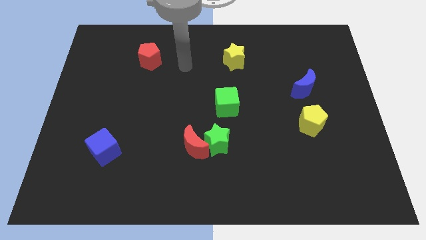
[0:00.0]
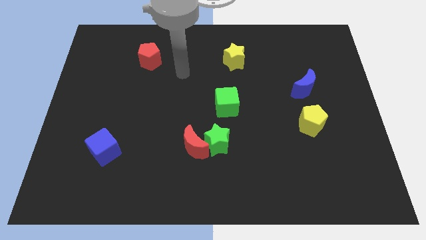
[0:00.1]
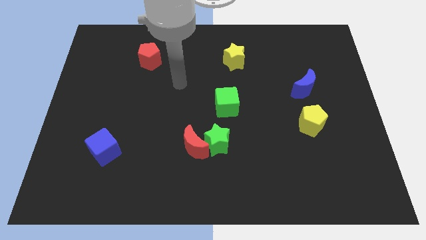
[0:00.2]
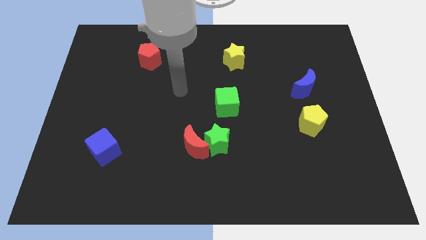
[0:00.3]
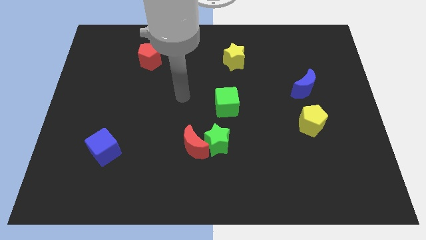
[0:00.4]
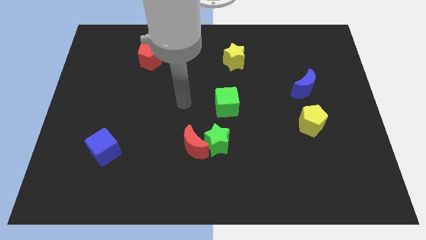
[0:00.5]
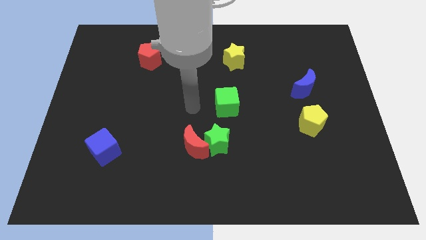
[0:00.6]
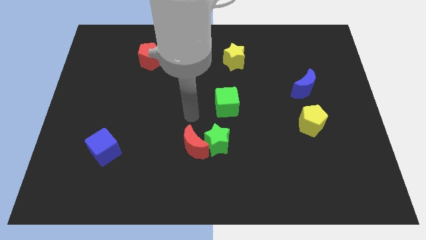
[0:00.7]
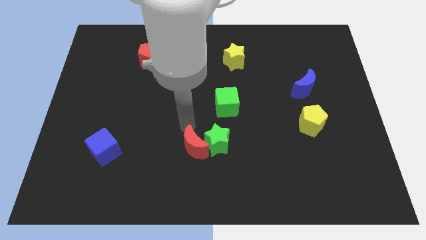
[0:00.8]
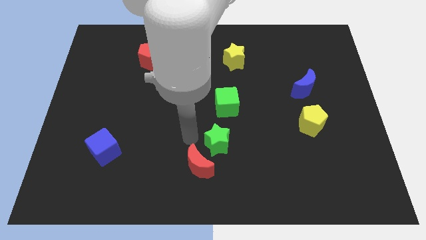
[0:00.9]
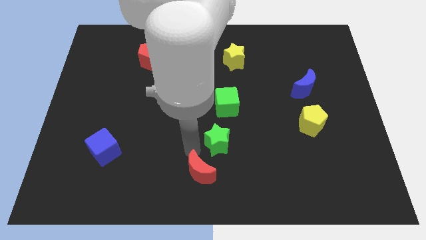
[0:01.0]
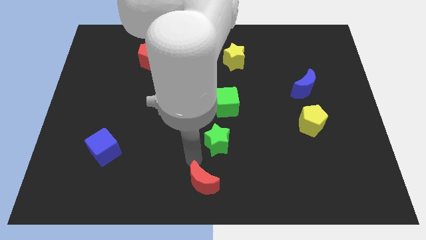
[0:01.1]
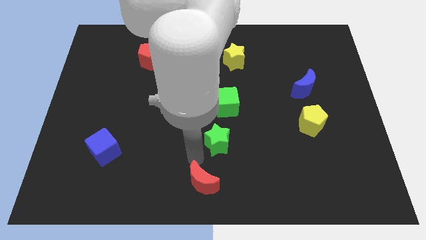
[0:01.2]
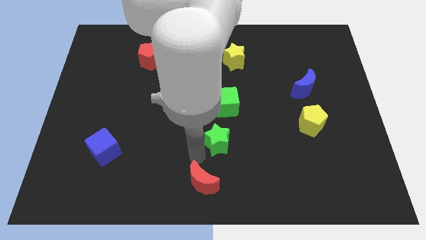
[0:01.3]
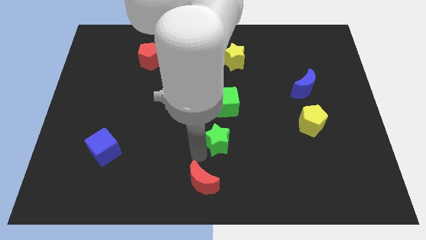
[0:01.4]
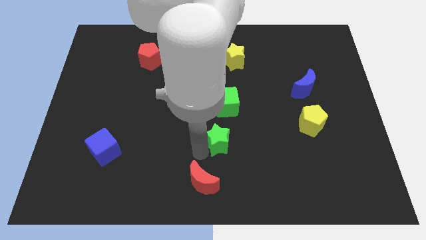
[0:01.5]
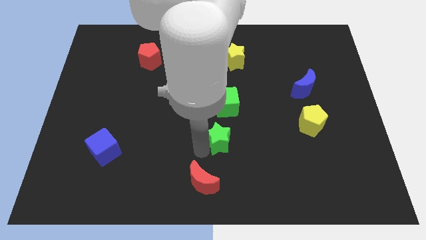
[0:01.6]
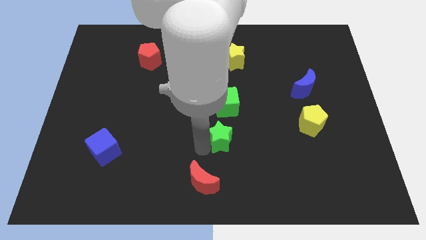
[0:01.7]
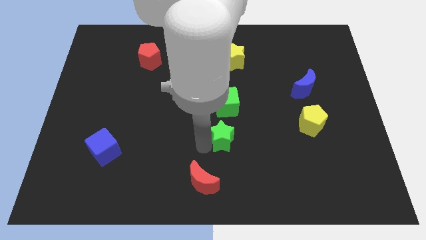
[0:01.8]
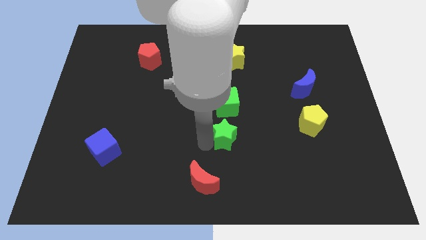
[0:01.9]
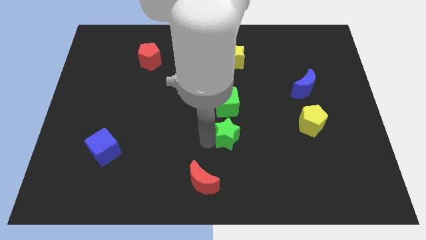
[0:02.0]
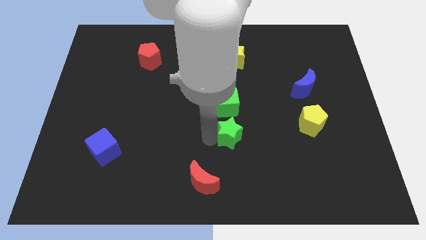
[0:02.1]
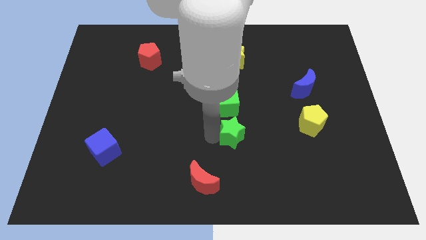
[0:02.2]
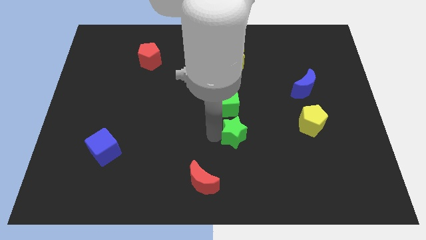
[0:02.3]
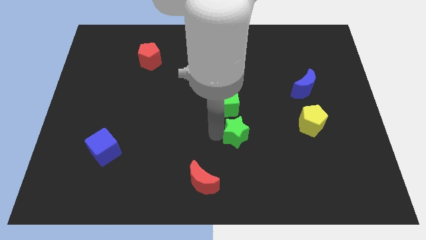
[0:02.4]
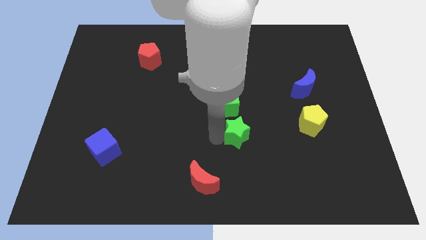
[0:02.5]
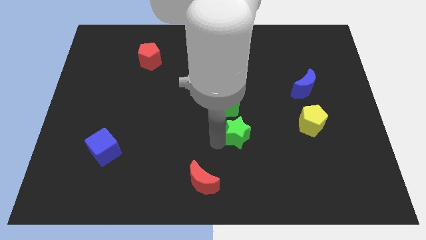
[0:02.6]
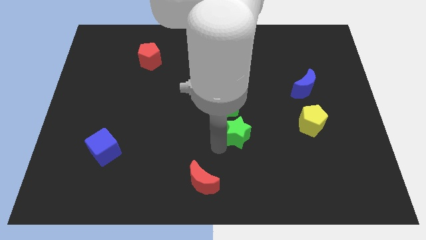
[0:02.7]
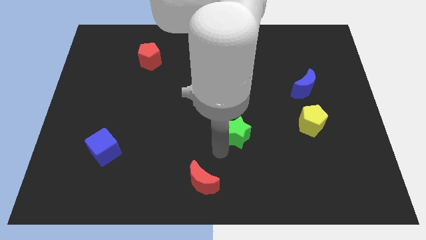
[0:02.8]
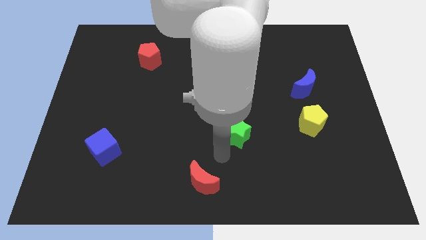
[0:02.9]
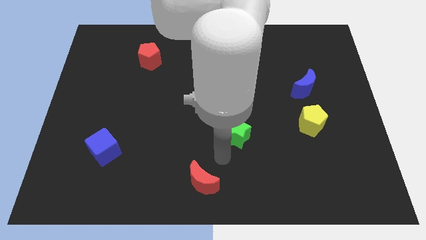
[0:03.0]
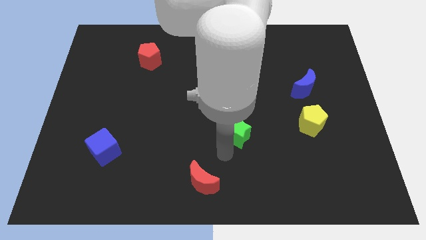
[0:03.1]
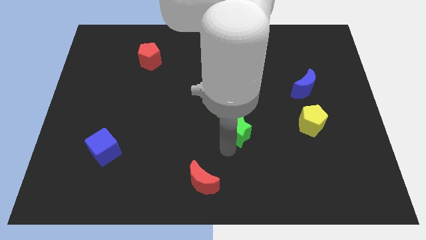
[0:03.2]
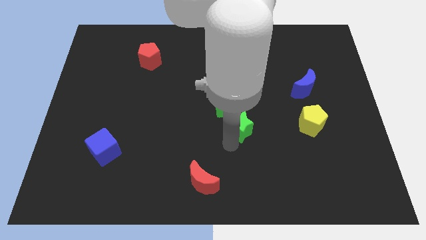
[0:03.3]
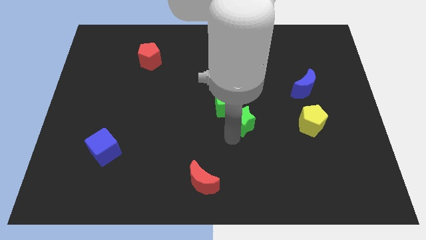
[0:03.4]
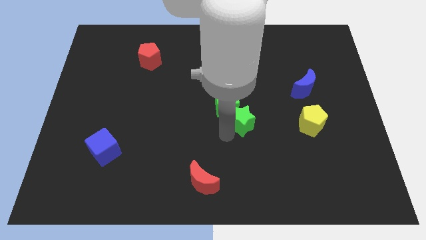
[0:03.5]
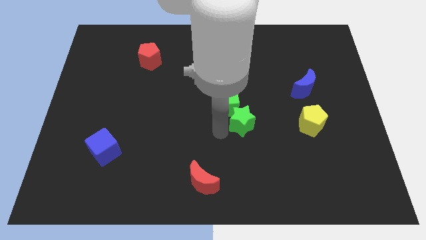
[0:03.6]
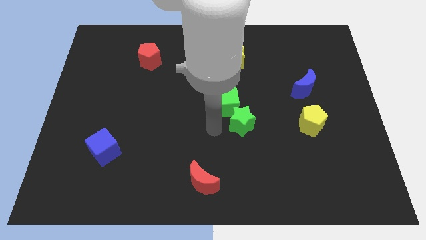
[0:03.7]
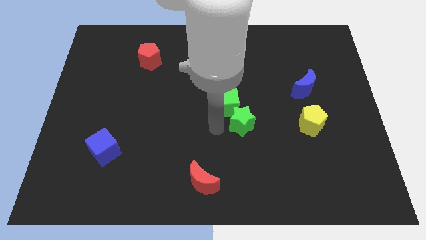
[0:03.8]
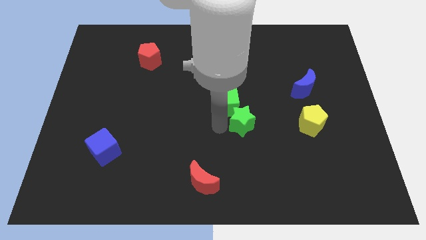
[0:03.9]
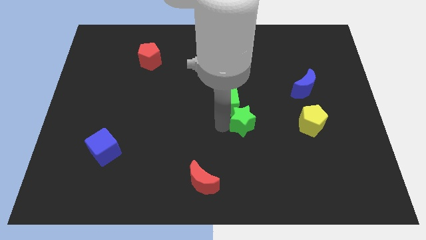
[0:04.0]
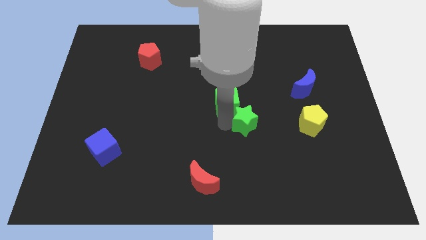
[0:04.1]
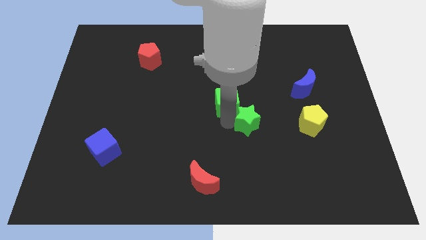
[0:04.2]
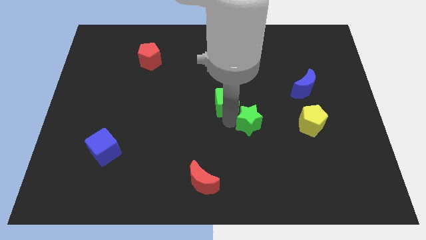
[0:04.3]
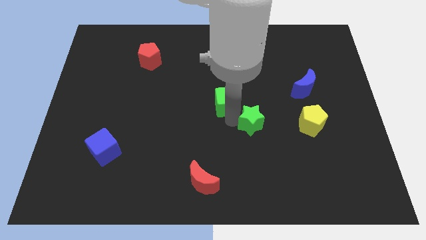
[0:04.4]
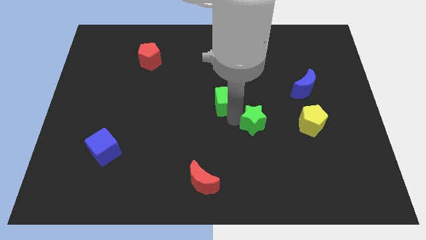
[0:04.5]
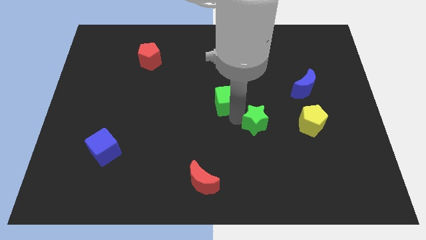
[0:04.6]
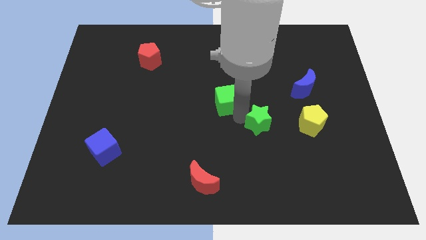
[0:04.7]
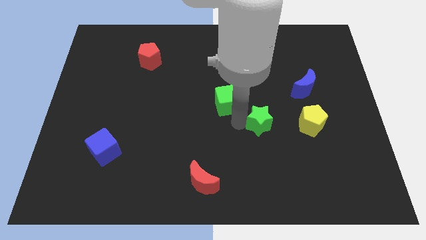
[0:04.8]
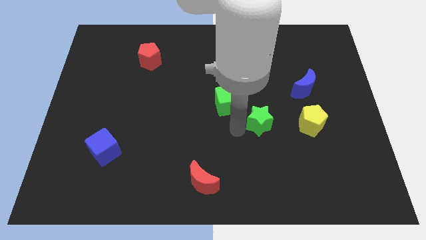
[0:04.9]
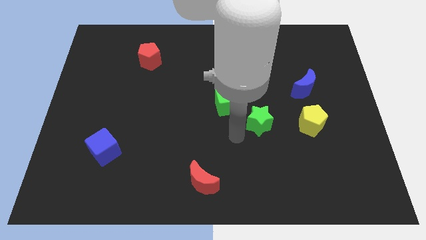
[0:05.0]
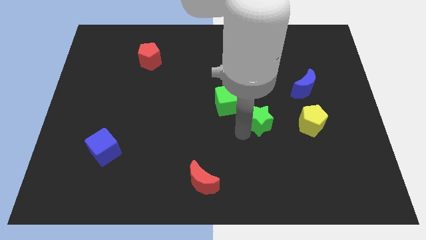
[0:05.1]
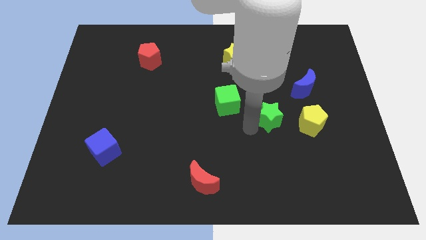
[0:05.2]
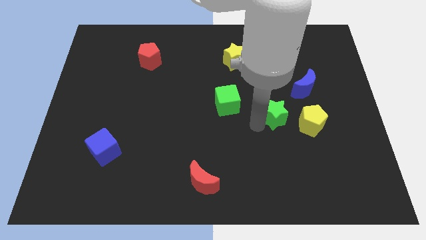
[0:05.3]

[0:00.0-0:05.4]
put the green star to the top left of the yellow pentagon

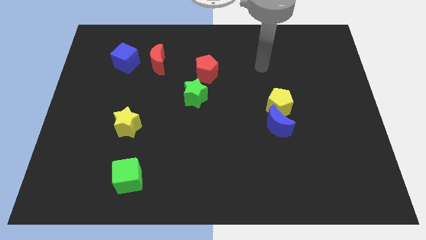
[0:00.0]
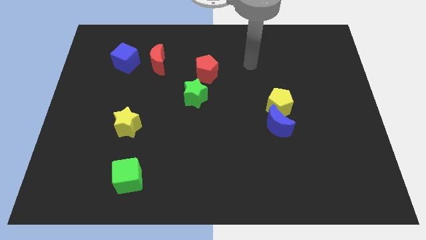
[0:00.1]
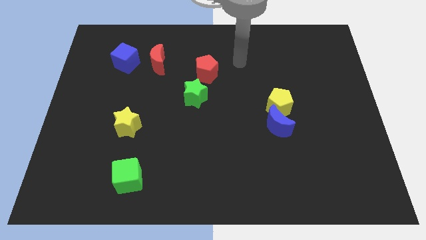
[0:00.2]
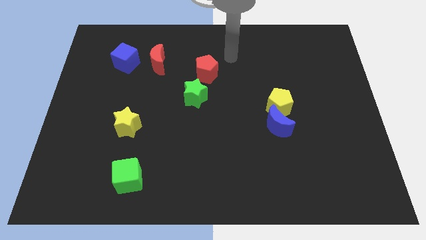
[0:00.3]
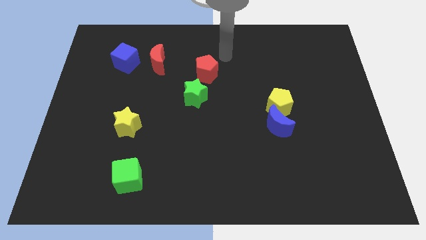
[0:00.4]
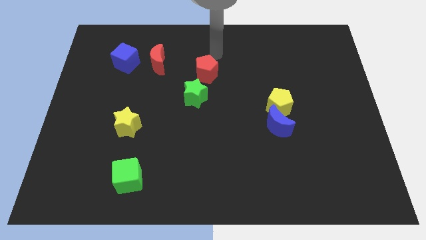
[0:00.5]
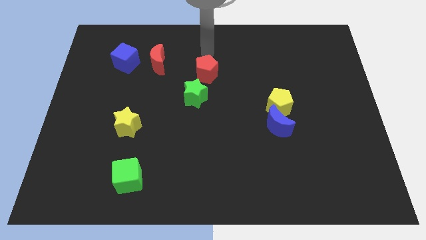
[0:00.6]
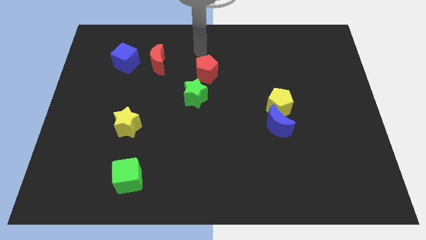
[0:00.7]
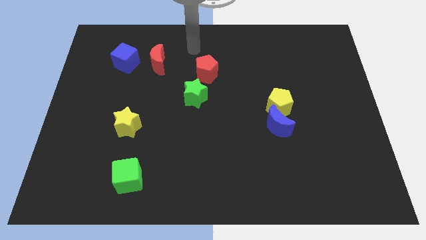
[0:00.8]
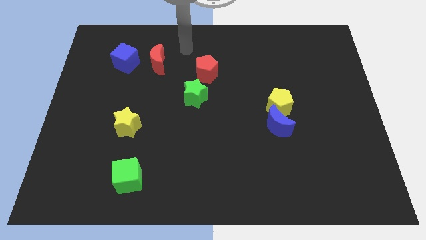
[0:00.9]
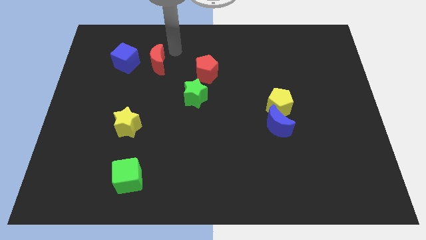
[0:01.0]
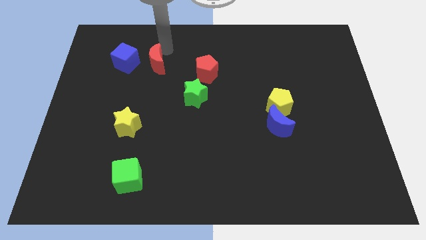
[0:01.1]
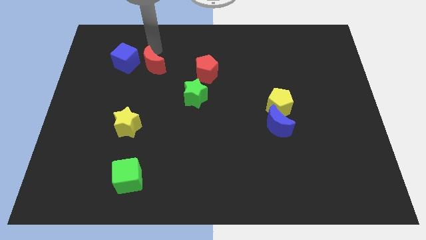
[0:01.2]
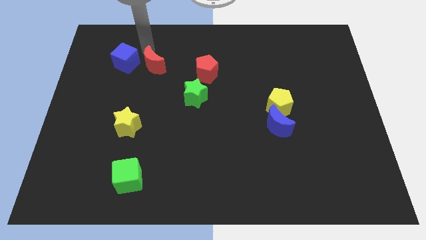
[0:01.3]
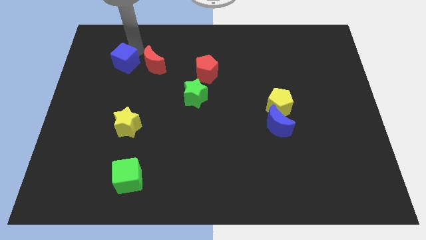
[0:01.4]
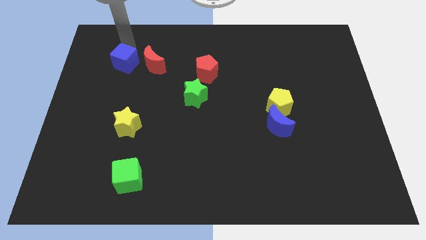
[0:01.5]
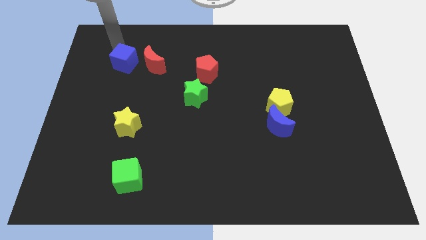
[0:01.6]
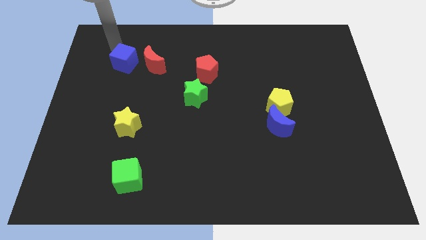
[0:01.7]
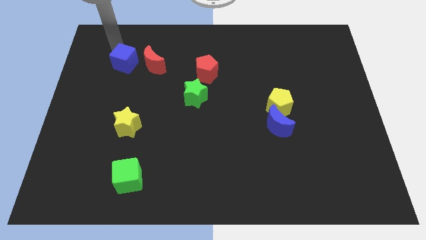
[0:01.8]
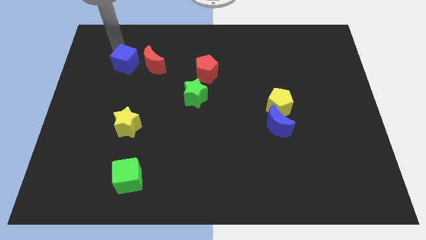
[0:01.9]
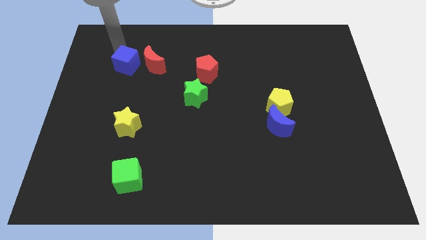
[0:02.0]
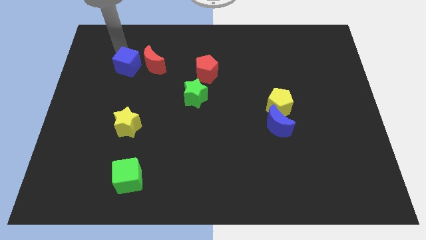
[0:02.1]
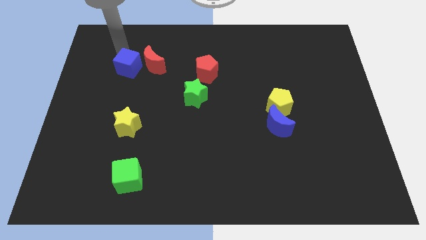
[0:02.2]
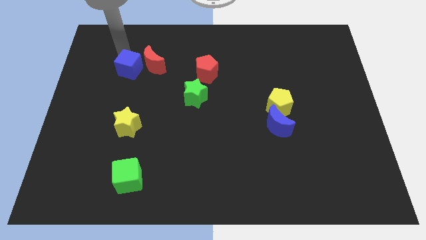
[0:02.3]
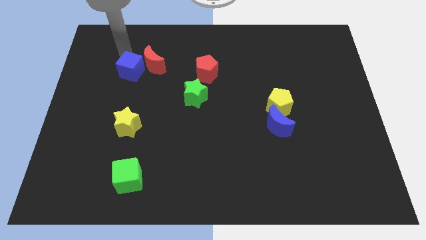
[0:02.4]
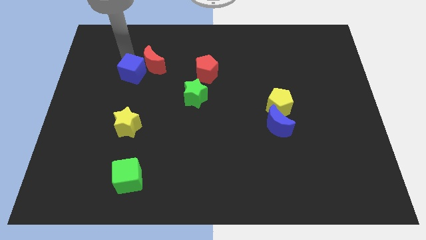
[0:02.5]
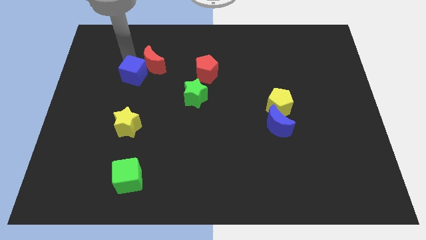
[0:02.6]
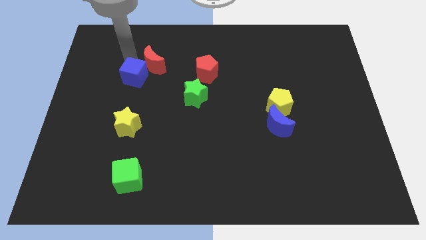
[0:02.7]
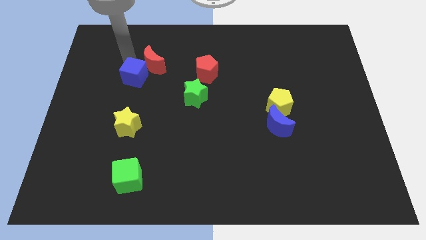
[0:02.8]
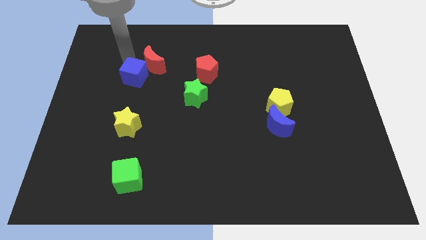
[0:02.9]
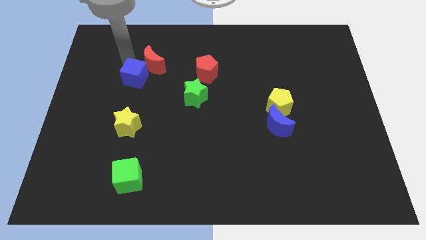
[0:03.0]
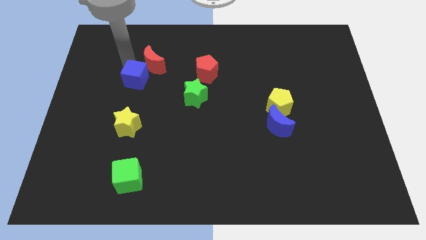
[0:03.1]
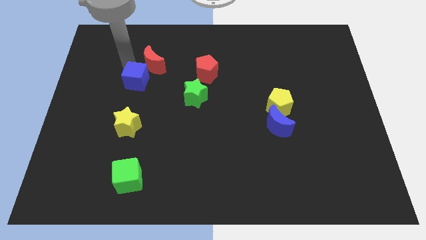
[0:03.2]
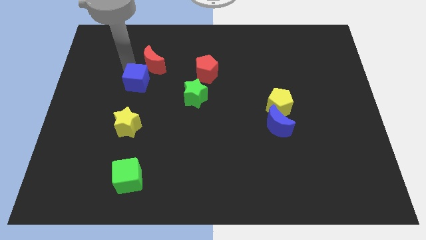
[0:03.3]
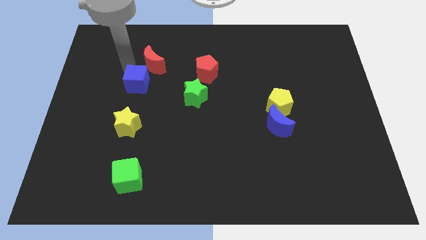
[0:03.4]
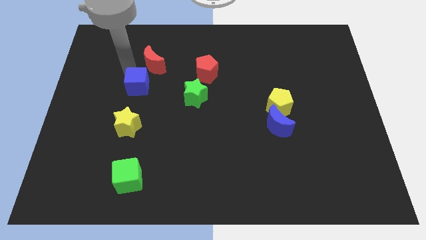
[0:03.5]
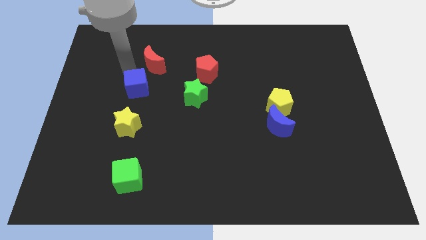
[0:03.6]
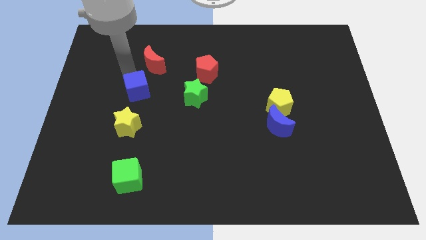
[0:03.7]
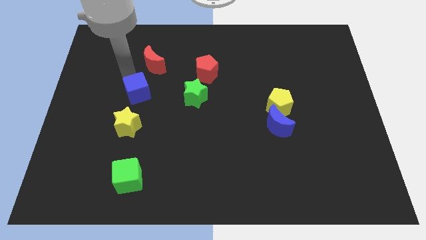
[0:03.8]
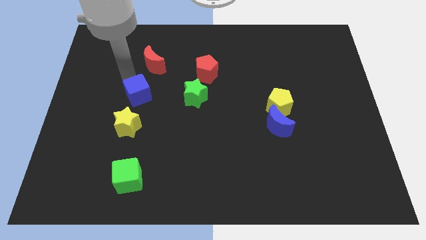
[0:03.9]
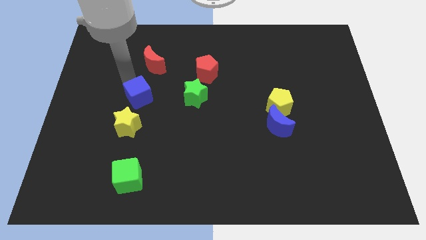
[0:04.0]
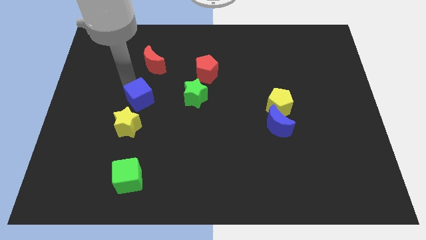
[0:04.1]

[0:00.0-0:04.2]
slide the blue cube diagonally up and to the right of the yellow star
